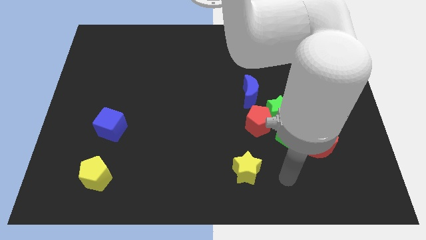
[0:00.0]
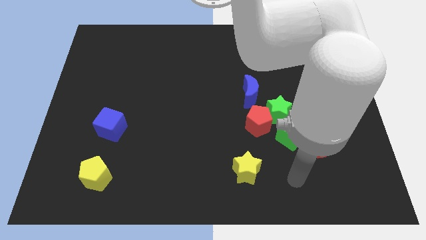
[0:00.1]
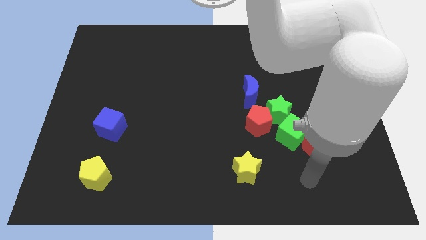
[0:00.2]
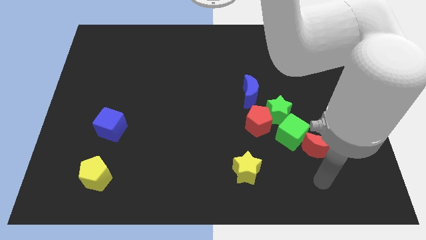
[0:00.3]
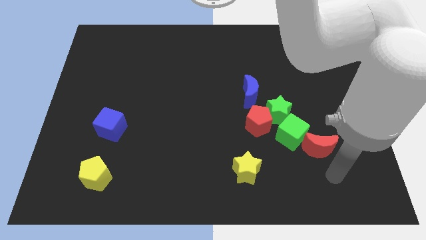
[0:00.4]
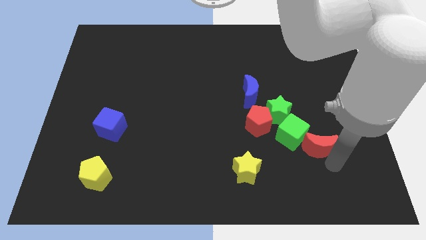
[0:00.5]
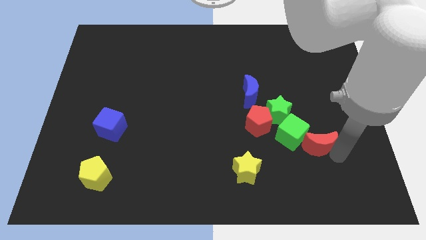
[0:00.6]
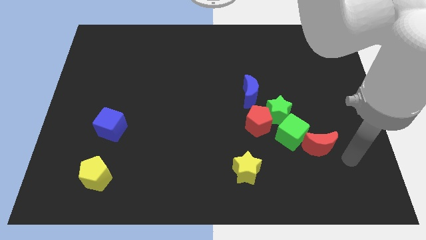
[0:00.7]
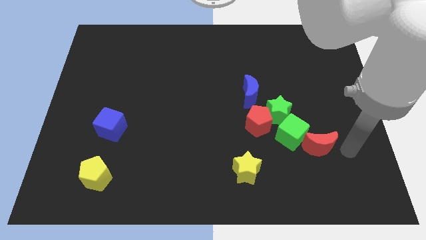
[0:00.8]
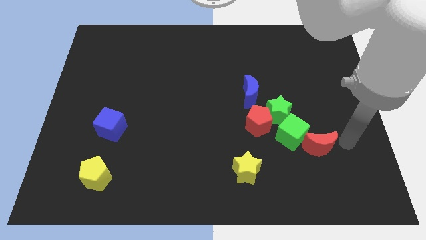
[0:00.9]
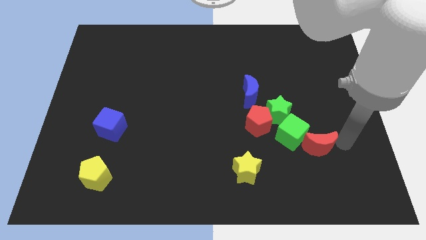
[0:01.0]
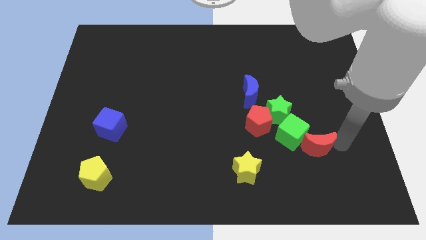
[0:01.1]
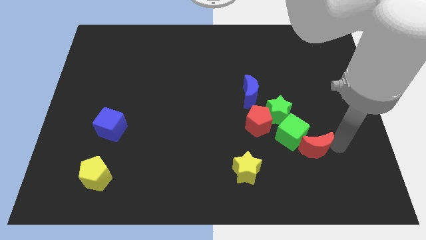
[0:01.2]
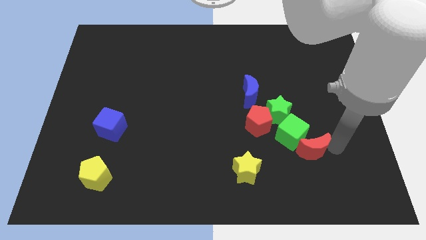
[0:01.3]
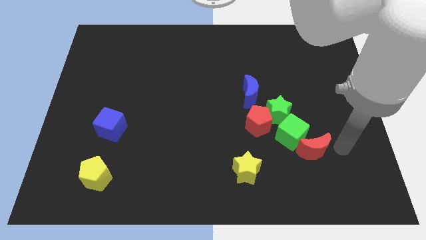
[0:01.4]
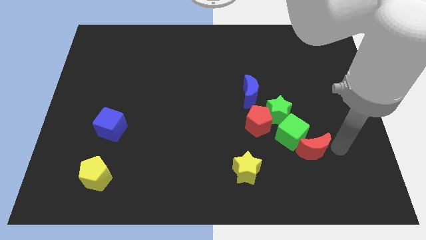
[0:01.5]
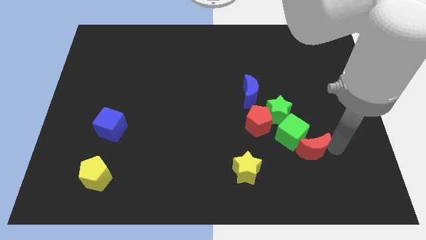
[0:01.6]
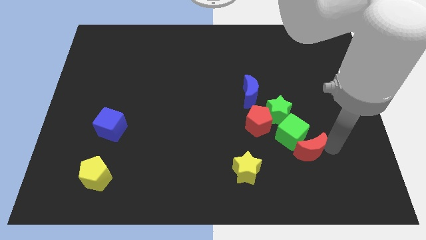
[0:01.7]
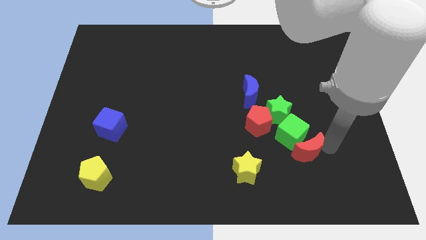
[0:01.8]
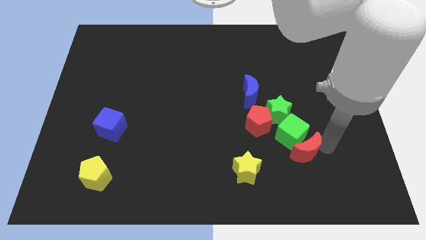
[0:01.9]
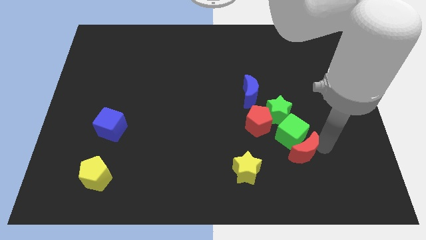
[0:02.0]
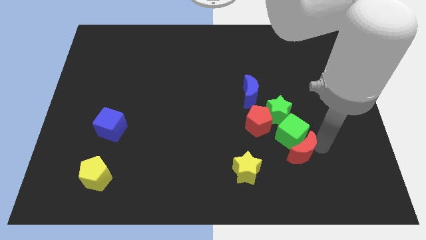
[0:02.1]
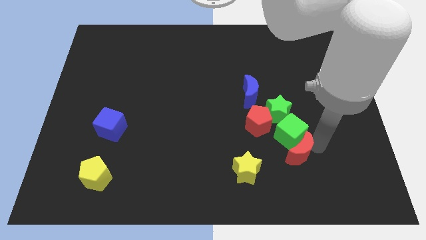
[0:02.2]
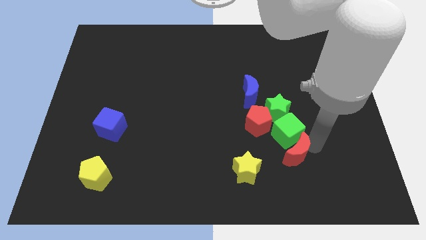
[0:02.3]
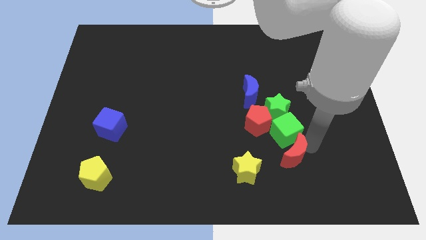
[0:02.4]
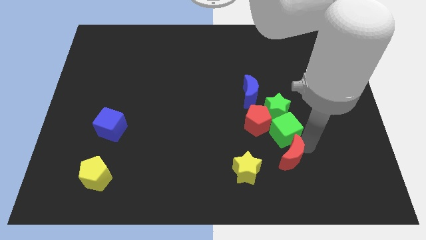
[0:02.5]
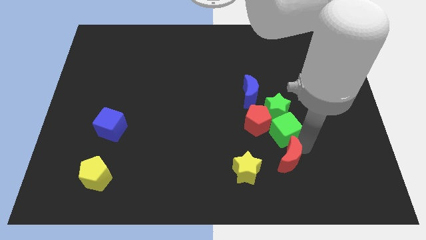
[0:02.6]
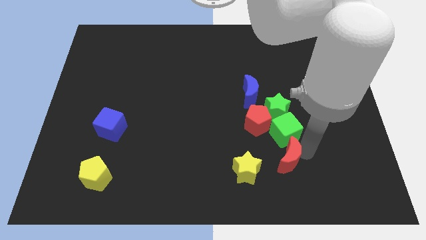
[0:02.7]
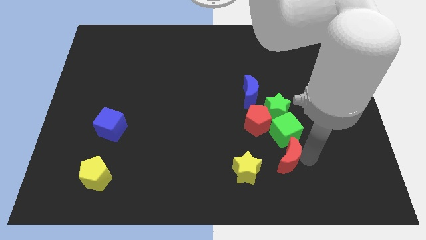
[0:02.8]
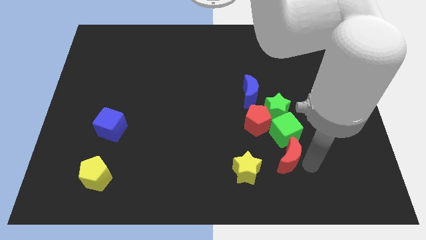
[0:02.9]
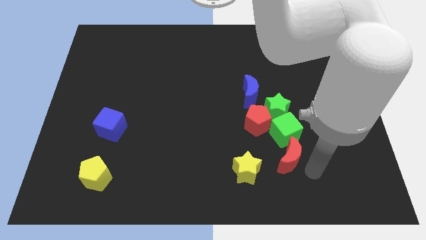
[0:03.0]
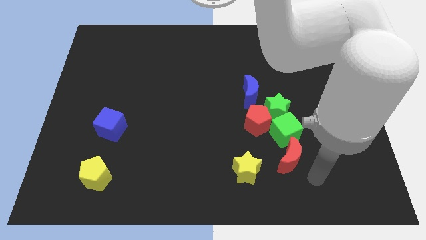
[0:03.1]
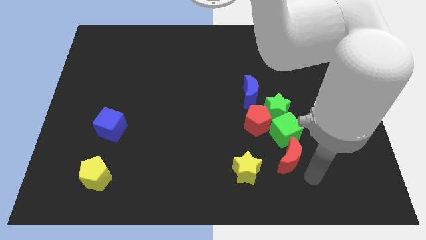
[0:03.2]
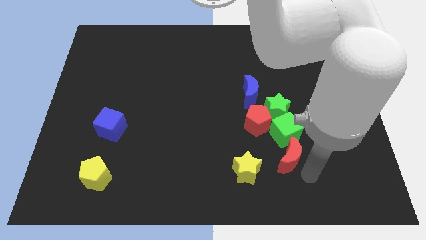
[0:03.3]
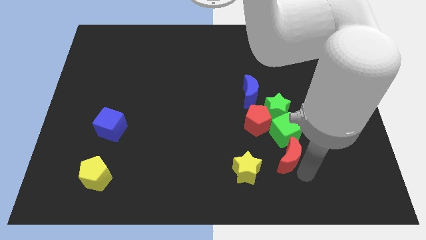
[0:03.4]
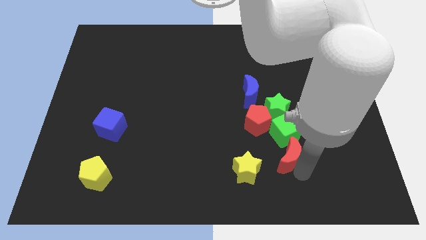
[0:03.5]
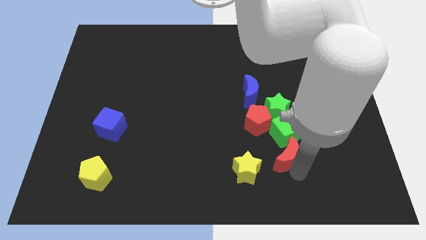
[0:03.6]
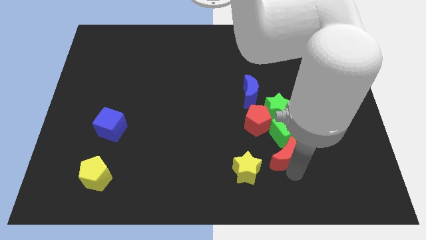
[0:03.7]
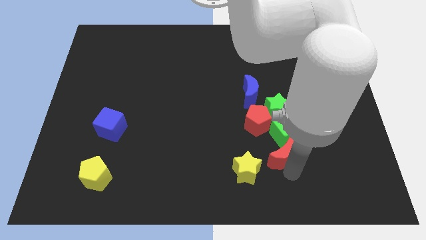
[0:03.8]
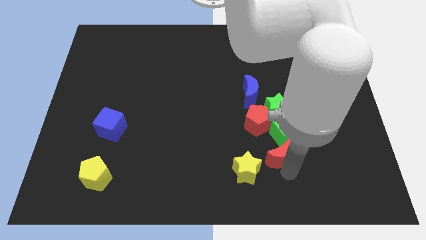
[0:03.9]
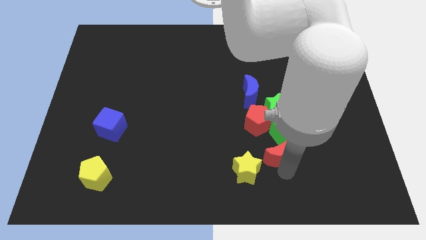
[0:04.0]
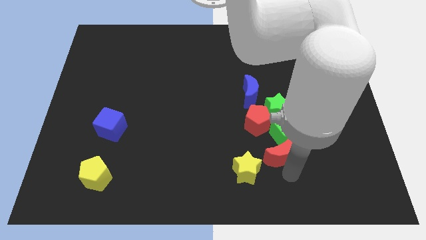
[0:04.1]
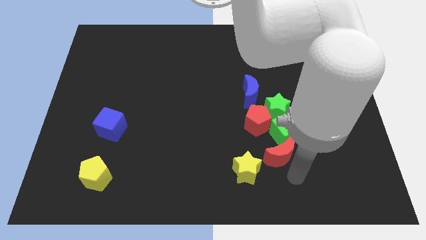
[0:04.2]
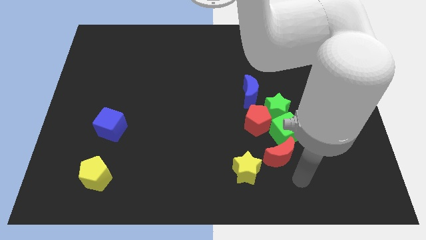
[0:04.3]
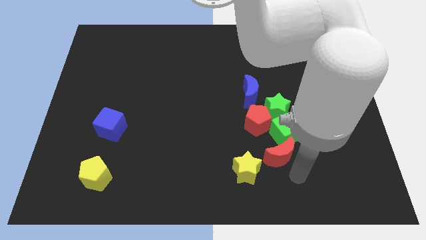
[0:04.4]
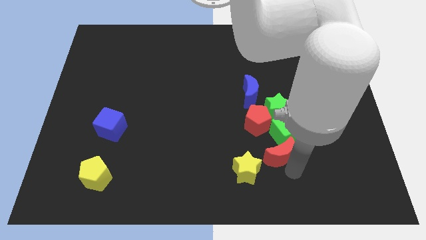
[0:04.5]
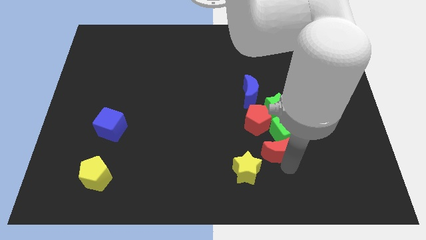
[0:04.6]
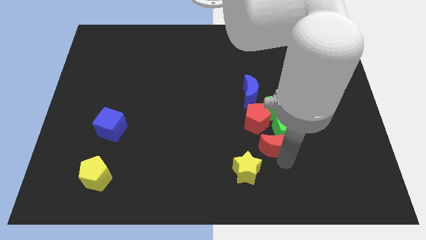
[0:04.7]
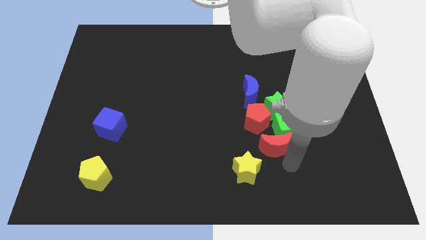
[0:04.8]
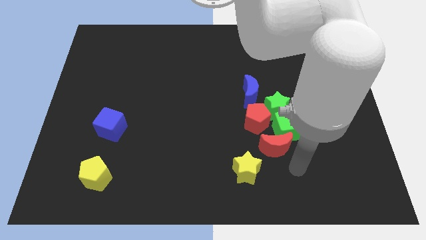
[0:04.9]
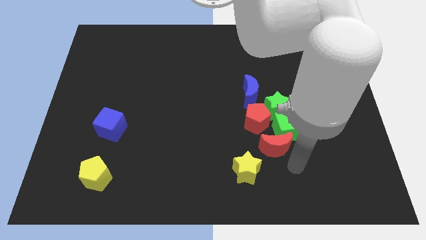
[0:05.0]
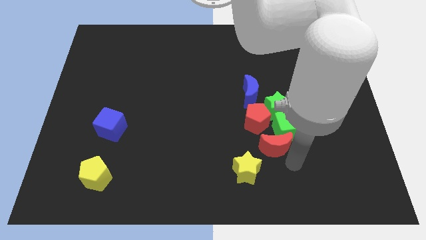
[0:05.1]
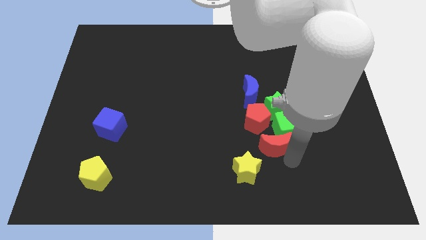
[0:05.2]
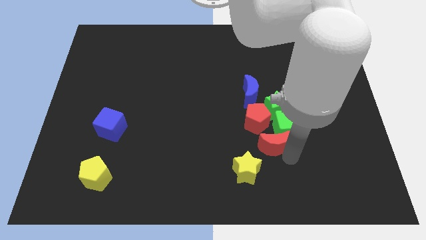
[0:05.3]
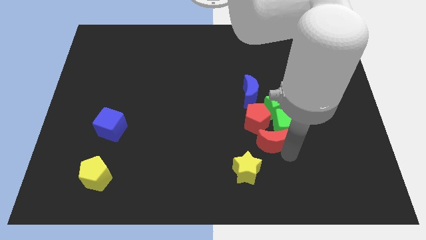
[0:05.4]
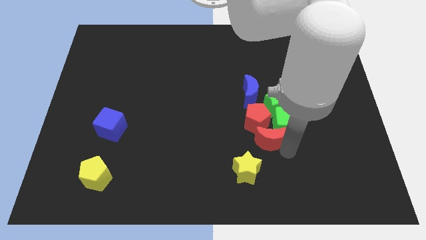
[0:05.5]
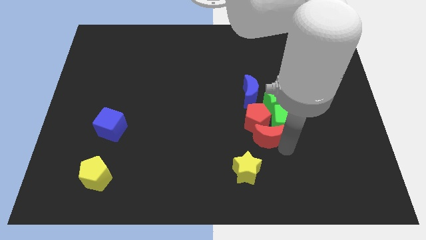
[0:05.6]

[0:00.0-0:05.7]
slide the red moon to the bottom left side of the green star

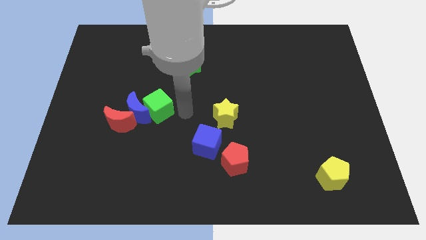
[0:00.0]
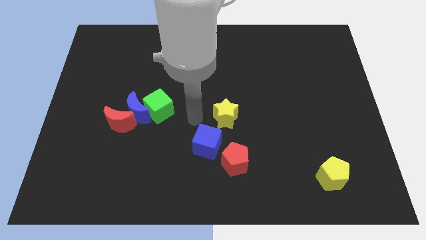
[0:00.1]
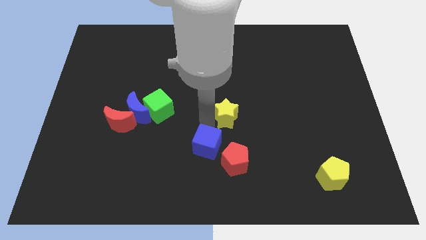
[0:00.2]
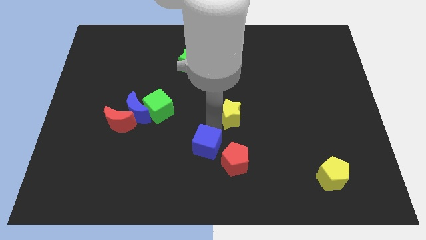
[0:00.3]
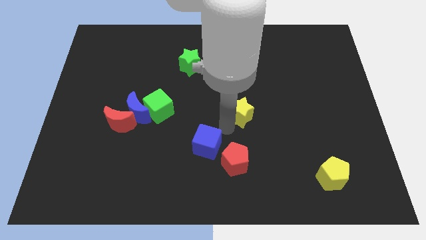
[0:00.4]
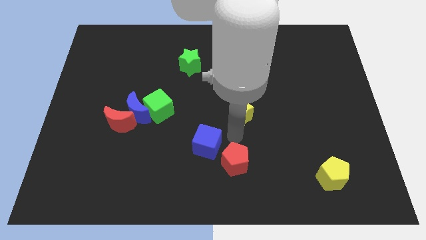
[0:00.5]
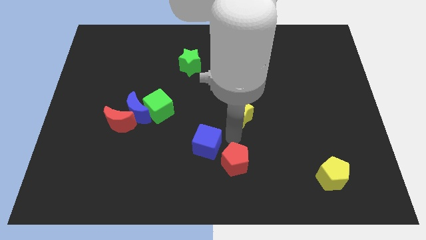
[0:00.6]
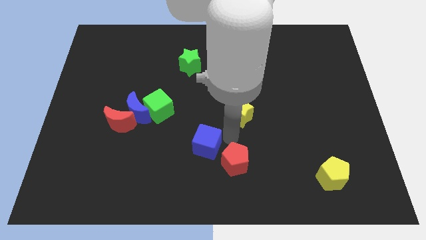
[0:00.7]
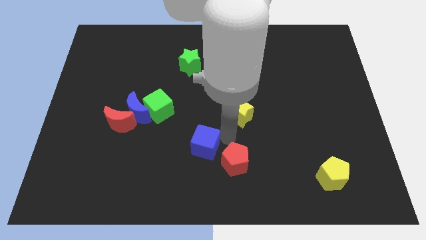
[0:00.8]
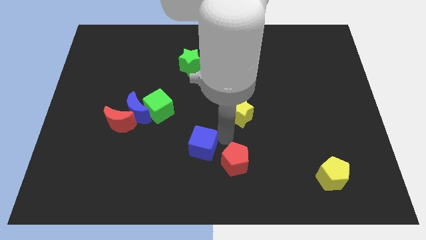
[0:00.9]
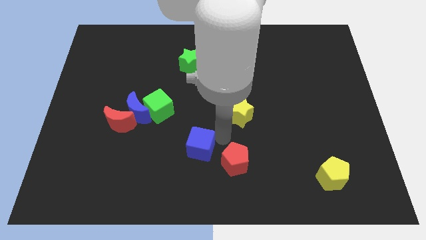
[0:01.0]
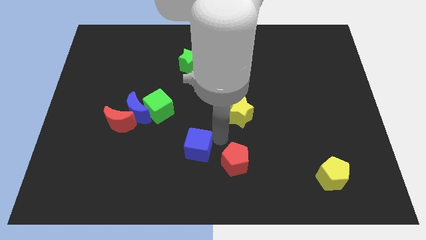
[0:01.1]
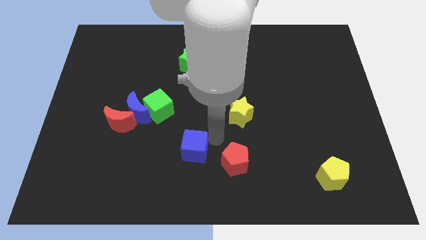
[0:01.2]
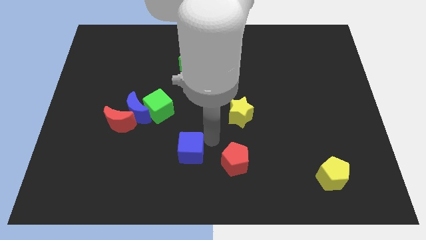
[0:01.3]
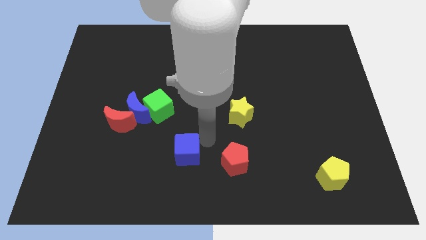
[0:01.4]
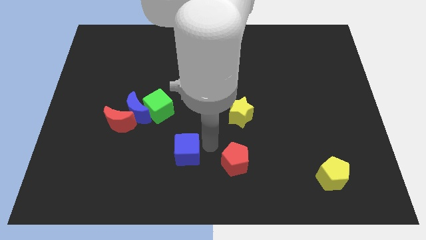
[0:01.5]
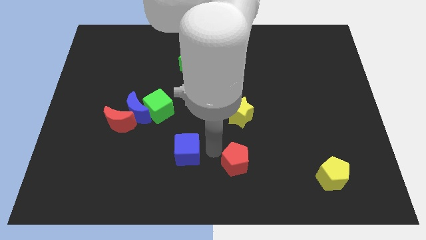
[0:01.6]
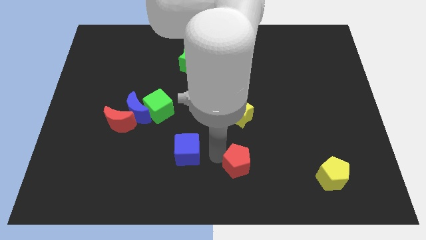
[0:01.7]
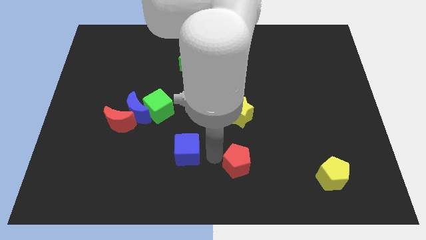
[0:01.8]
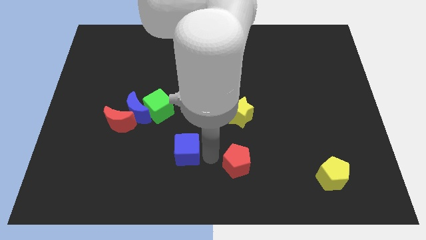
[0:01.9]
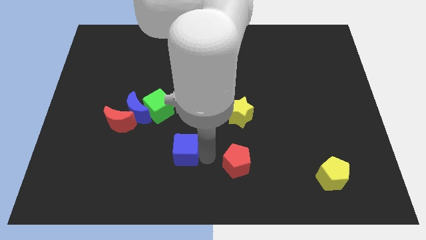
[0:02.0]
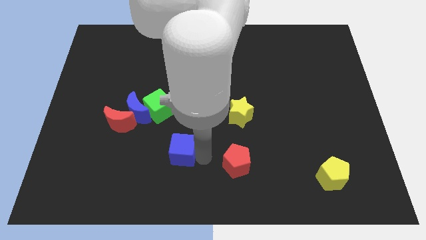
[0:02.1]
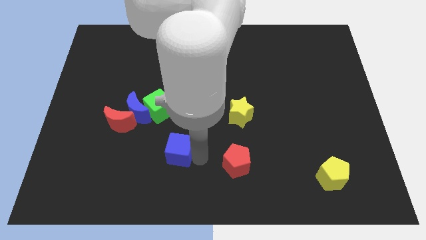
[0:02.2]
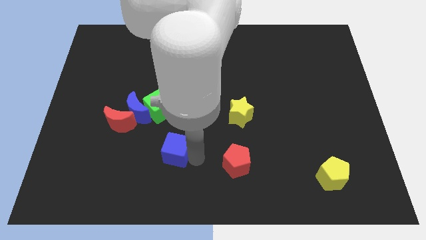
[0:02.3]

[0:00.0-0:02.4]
put the blue cube to the bottom of the green cube
